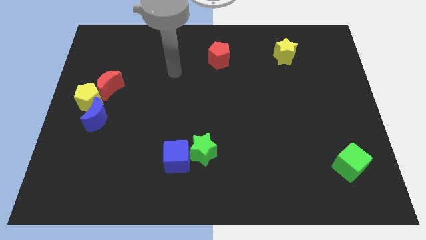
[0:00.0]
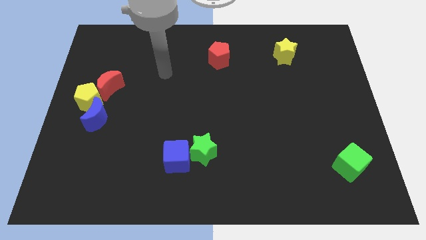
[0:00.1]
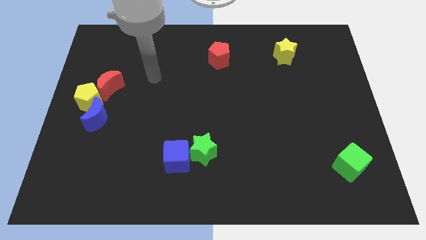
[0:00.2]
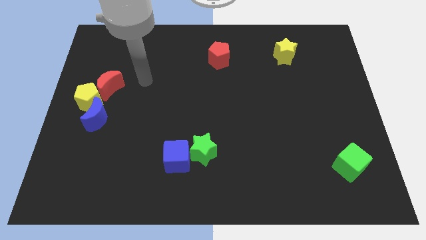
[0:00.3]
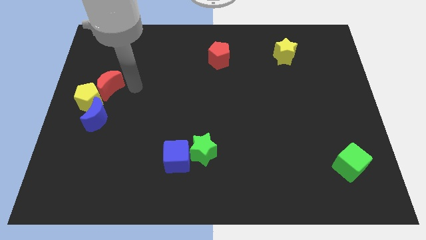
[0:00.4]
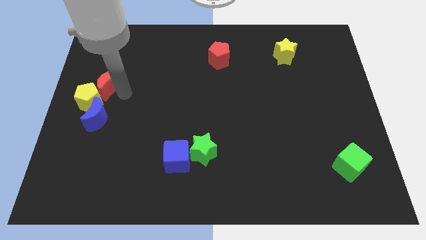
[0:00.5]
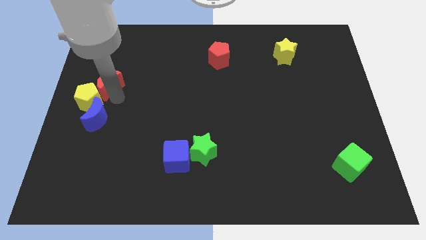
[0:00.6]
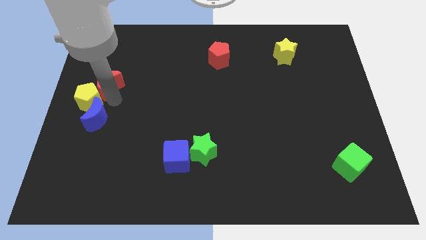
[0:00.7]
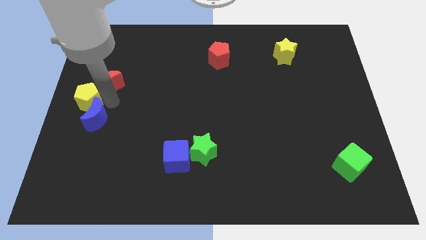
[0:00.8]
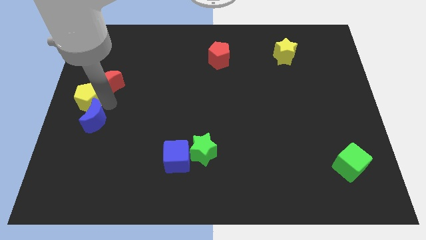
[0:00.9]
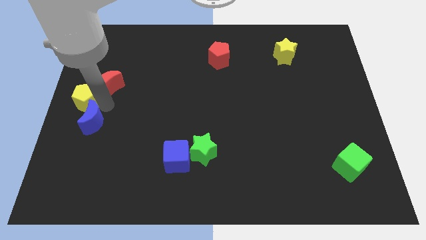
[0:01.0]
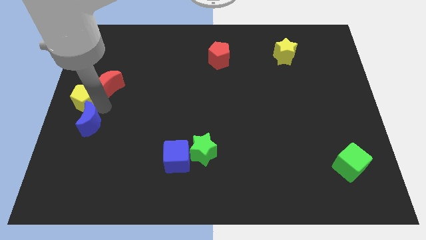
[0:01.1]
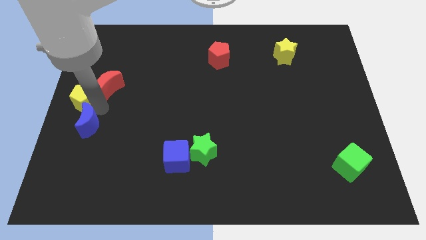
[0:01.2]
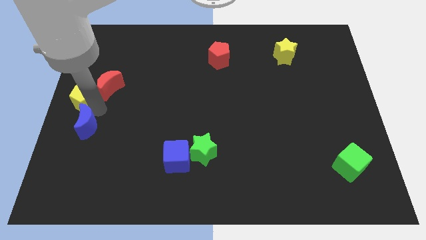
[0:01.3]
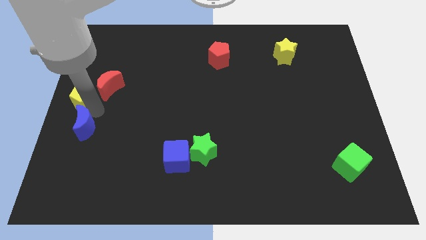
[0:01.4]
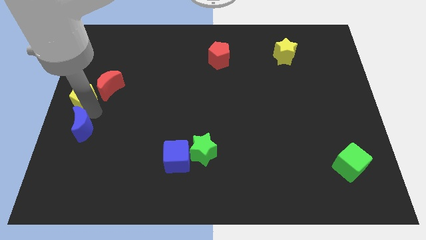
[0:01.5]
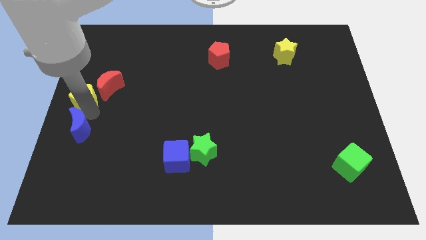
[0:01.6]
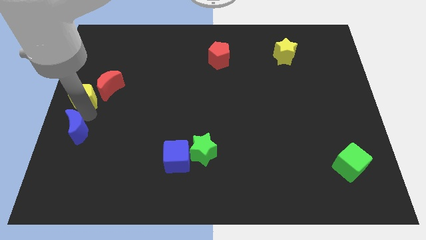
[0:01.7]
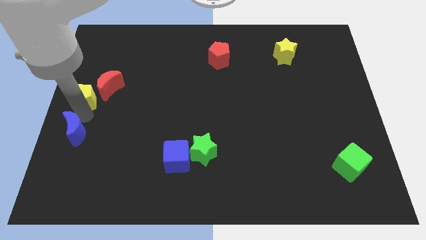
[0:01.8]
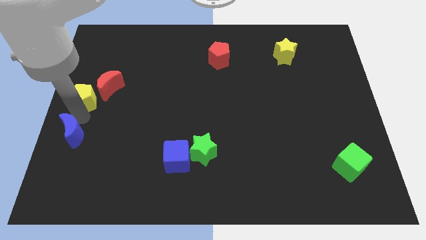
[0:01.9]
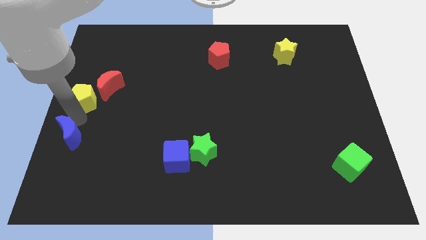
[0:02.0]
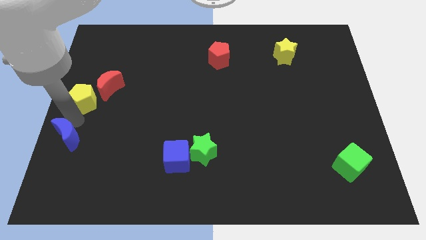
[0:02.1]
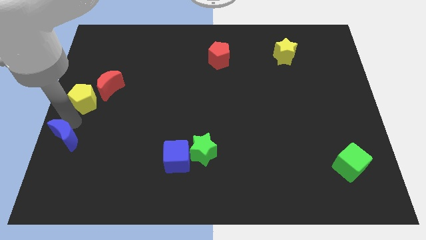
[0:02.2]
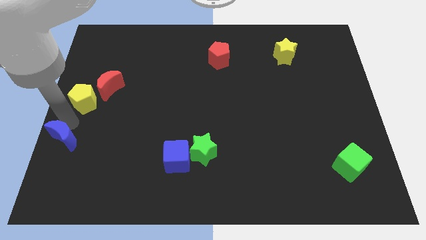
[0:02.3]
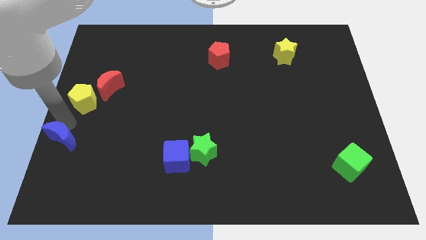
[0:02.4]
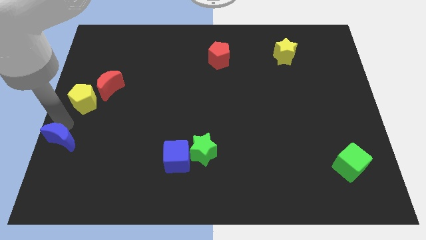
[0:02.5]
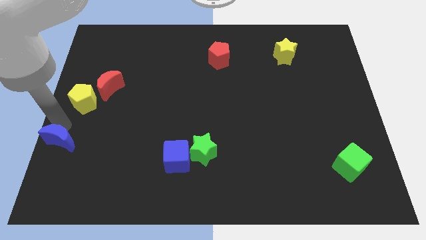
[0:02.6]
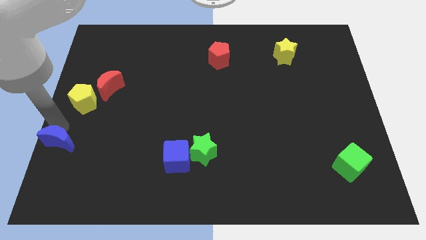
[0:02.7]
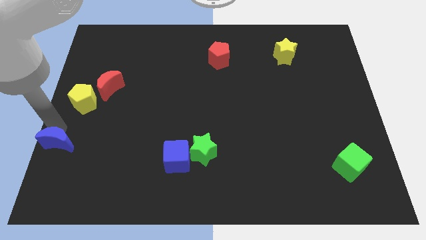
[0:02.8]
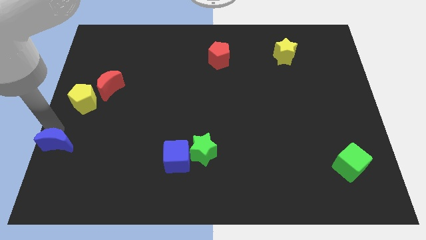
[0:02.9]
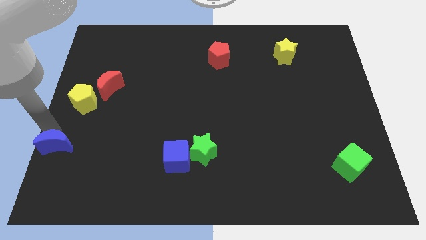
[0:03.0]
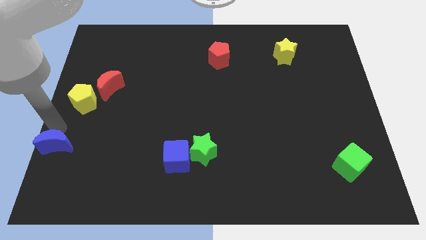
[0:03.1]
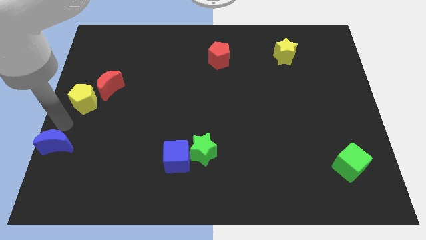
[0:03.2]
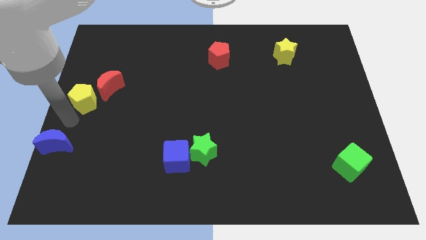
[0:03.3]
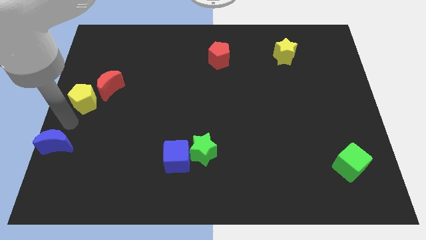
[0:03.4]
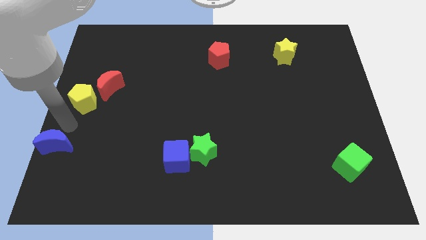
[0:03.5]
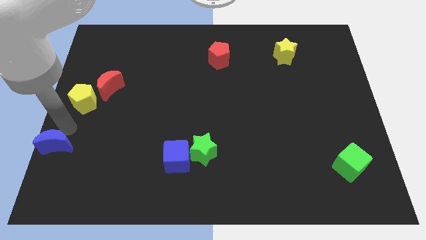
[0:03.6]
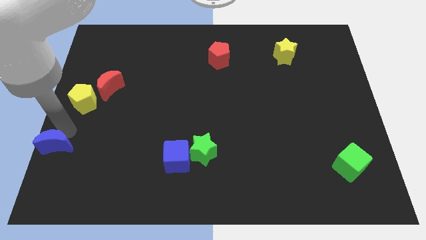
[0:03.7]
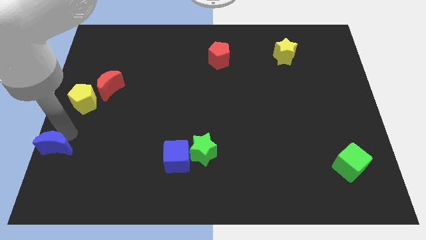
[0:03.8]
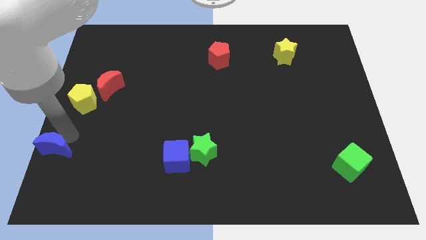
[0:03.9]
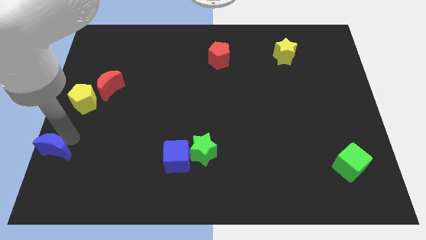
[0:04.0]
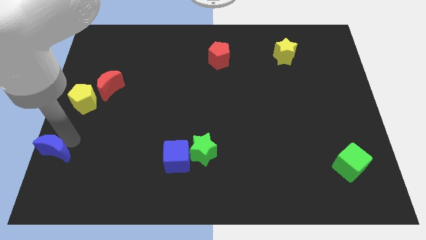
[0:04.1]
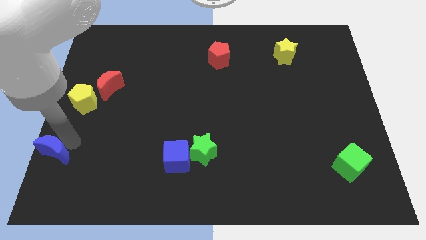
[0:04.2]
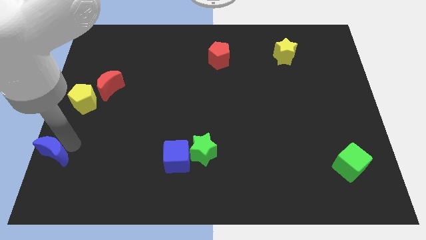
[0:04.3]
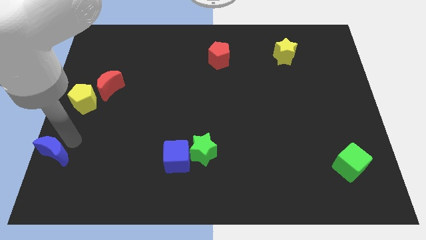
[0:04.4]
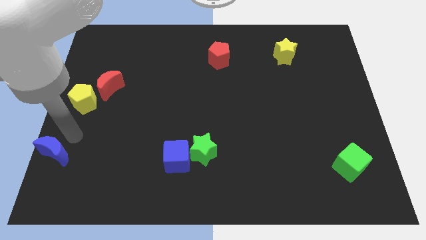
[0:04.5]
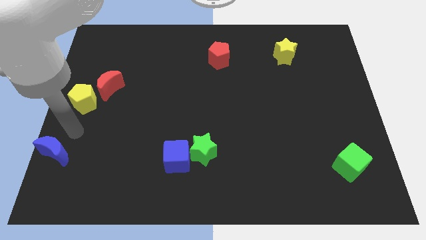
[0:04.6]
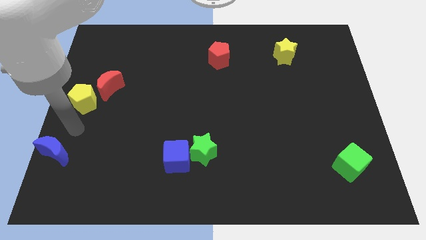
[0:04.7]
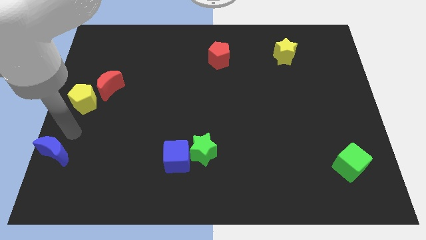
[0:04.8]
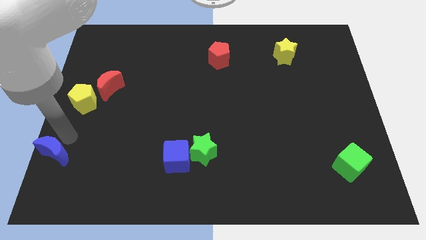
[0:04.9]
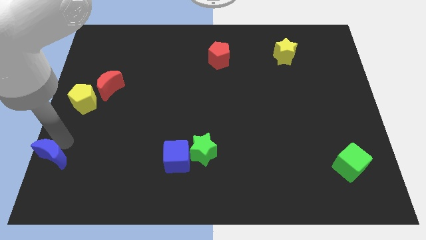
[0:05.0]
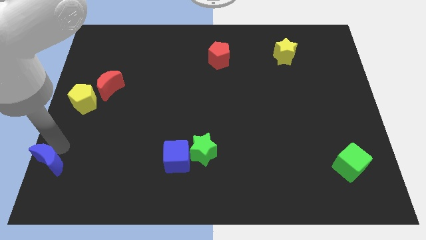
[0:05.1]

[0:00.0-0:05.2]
move the blue moon to the bottom left of the board
